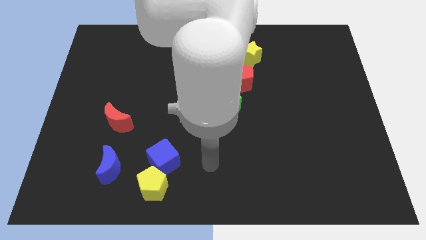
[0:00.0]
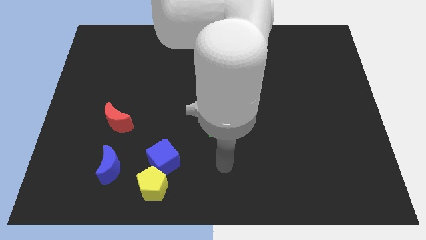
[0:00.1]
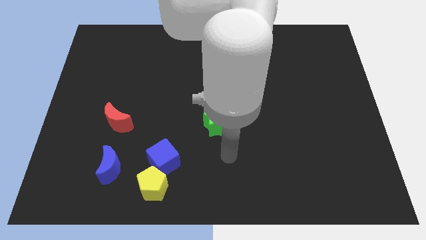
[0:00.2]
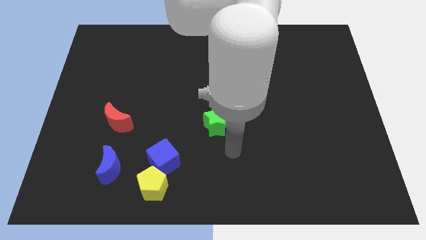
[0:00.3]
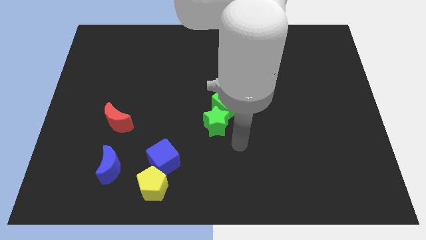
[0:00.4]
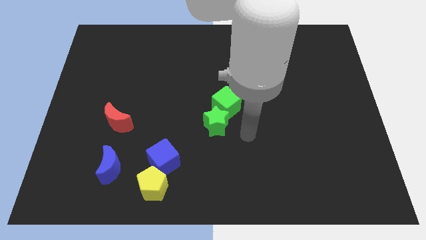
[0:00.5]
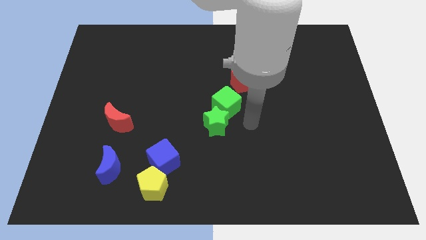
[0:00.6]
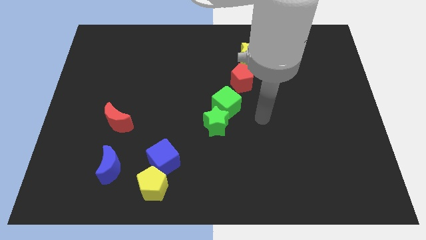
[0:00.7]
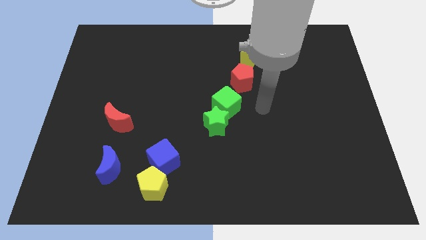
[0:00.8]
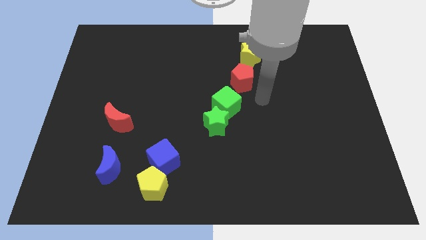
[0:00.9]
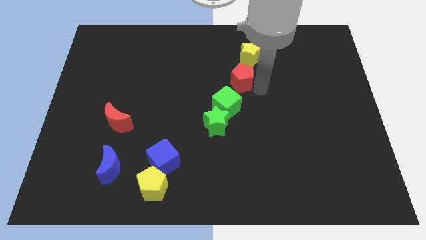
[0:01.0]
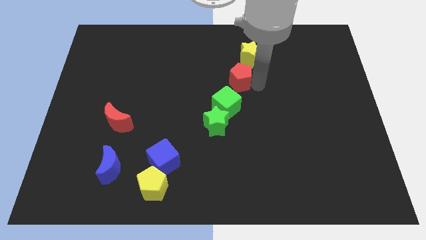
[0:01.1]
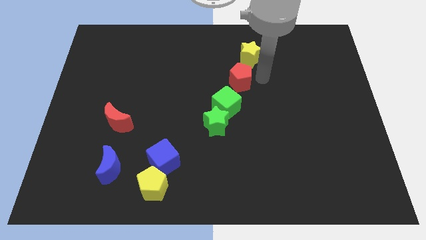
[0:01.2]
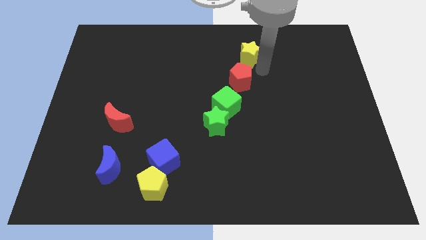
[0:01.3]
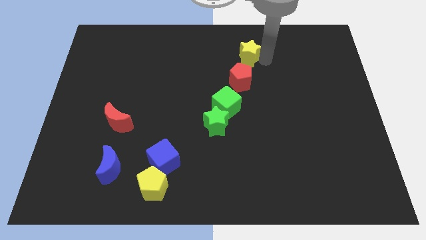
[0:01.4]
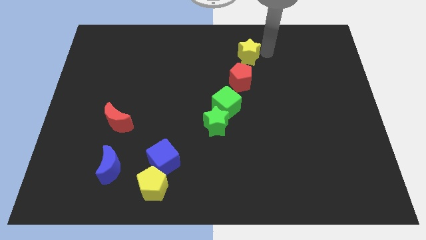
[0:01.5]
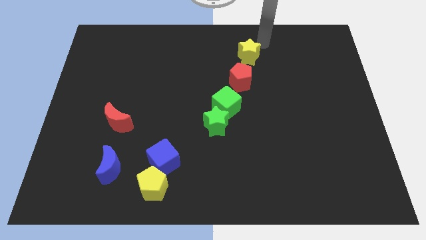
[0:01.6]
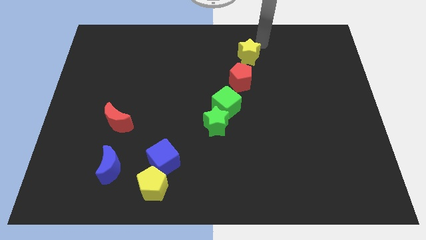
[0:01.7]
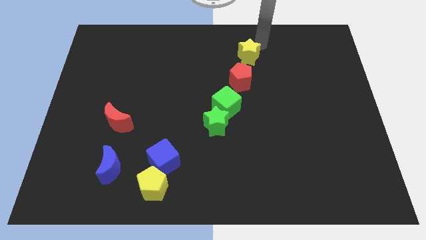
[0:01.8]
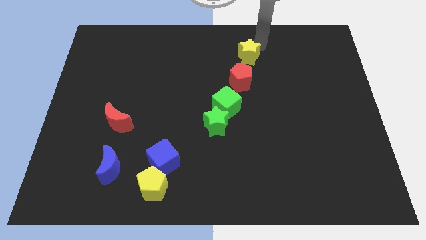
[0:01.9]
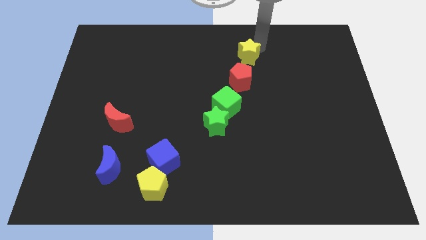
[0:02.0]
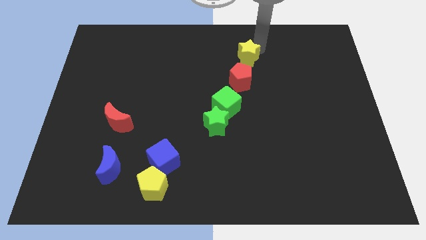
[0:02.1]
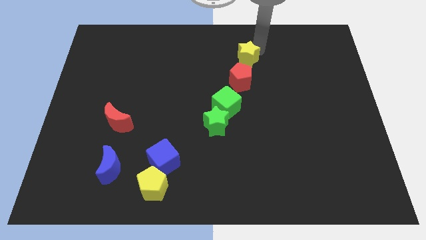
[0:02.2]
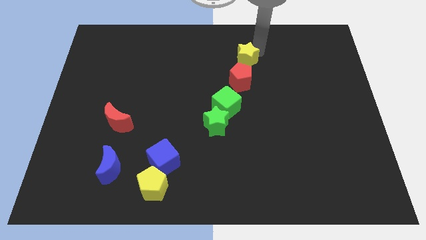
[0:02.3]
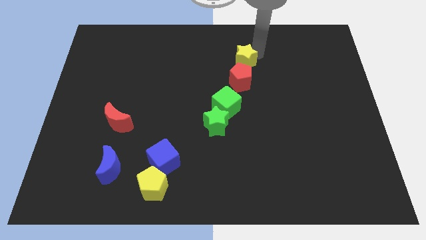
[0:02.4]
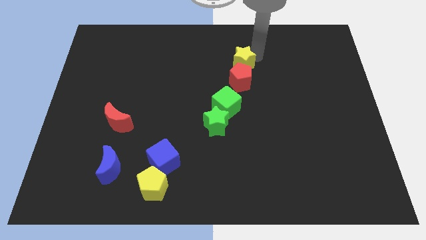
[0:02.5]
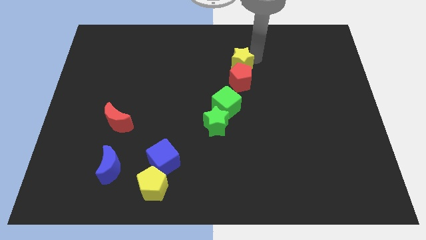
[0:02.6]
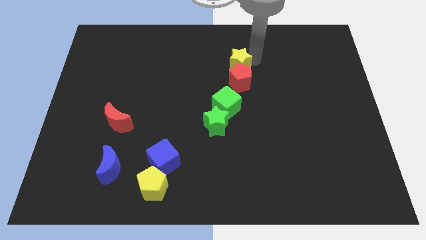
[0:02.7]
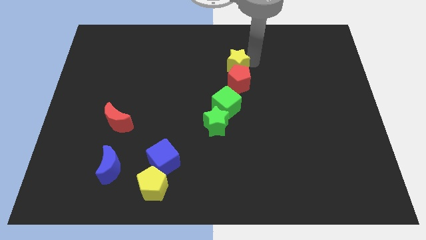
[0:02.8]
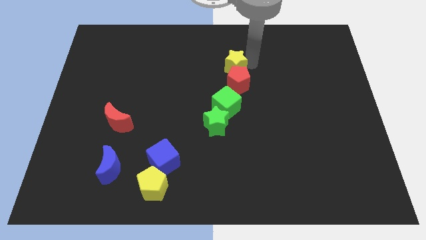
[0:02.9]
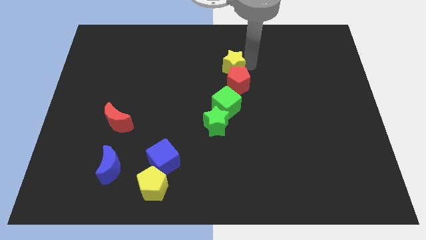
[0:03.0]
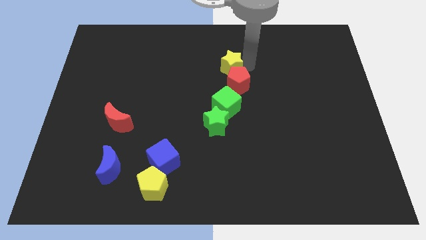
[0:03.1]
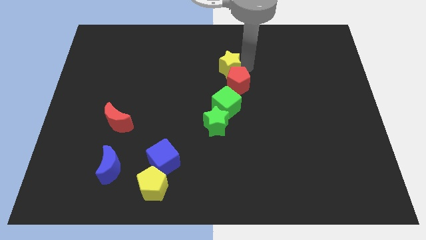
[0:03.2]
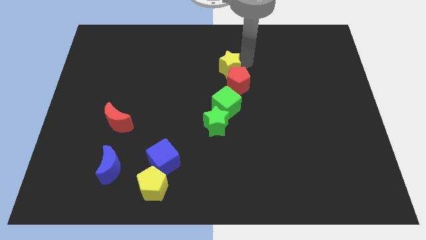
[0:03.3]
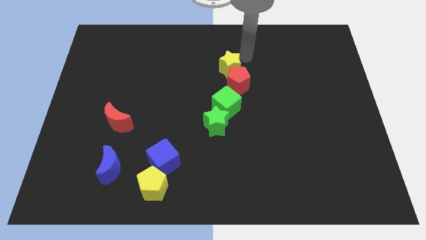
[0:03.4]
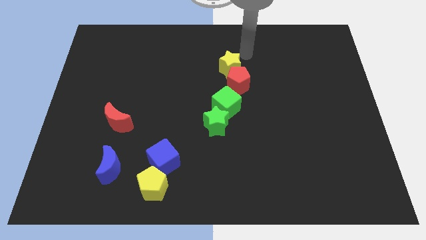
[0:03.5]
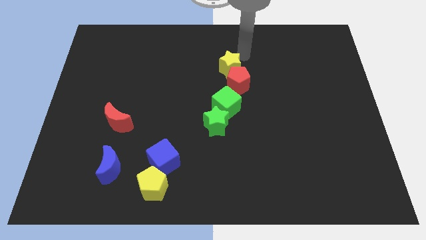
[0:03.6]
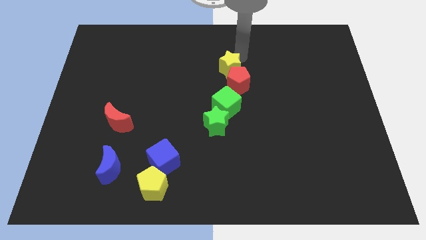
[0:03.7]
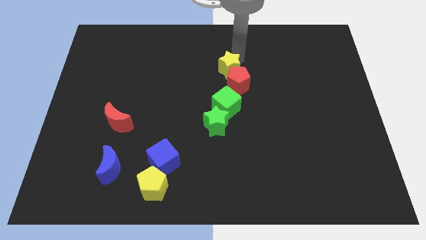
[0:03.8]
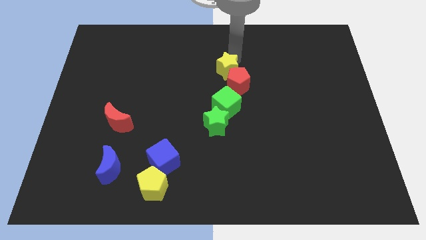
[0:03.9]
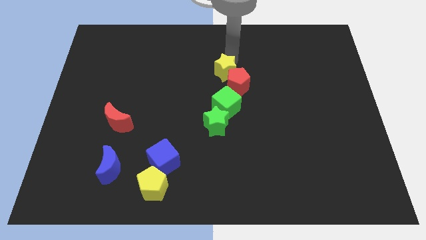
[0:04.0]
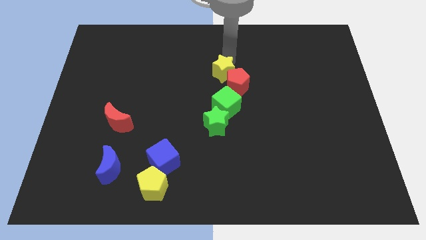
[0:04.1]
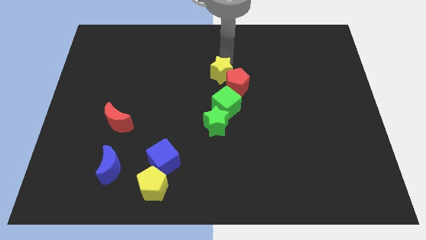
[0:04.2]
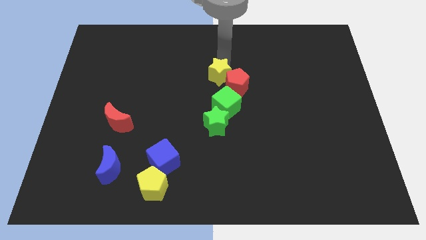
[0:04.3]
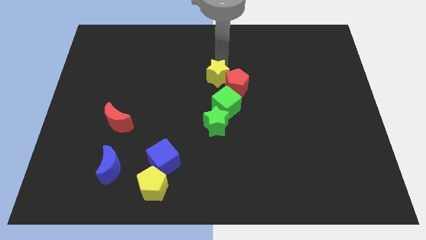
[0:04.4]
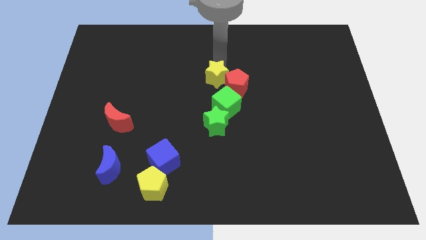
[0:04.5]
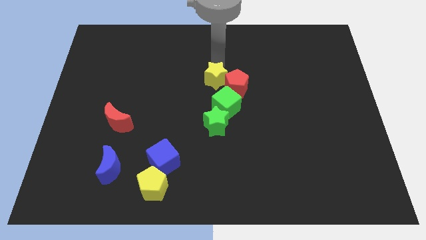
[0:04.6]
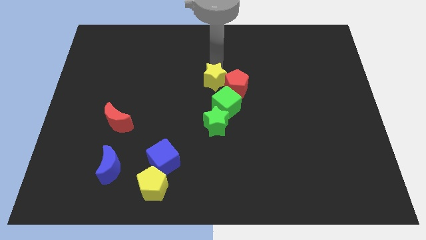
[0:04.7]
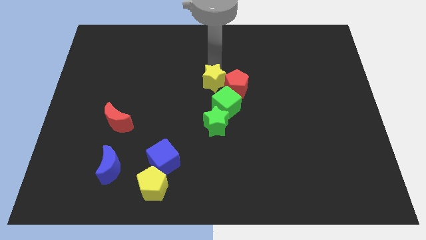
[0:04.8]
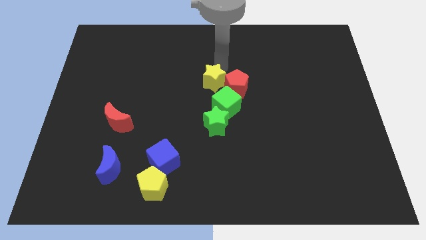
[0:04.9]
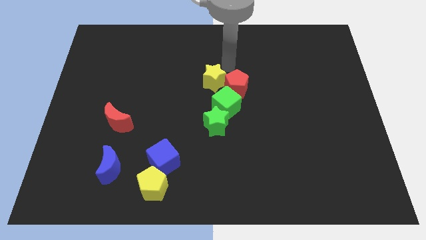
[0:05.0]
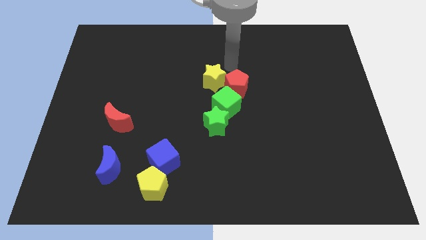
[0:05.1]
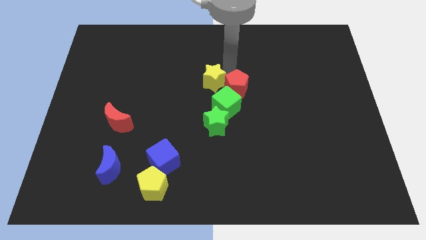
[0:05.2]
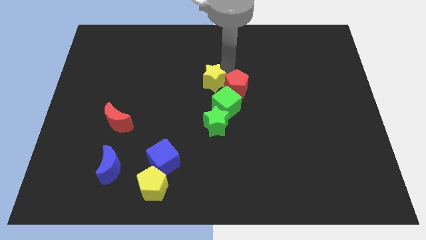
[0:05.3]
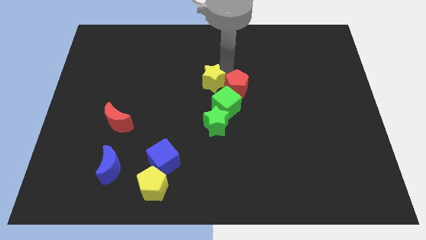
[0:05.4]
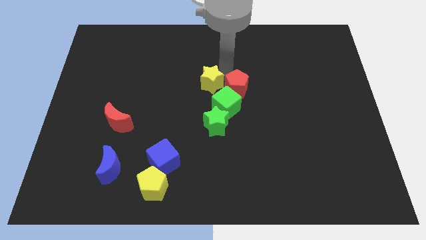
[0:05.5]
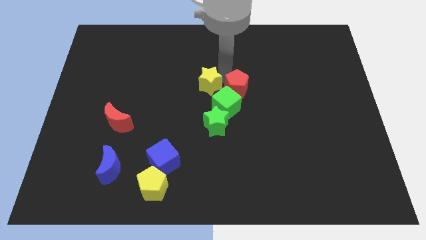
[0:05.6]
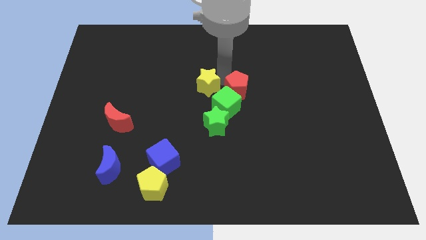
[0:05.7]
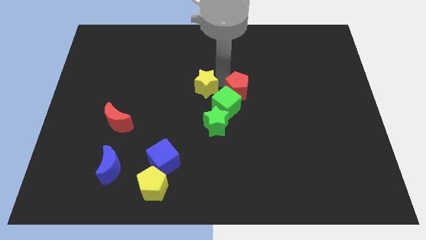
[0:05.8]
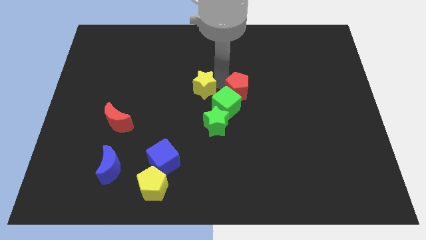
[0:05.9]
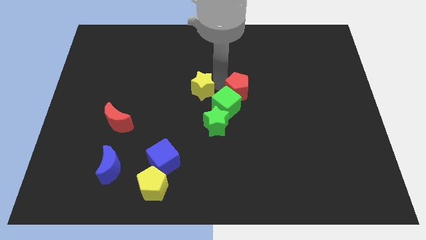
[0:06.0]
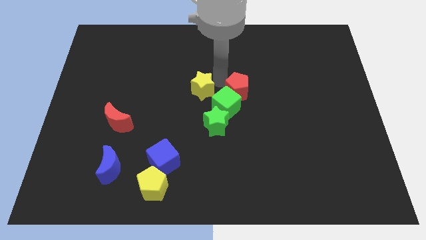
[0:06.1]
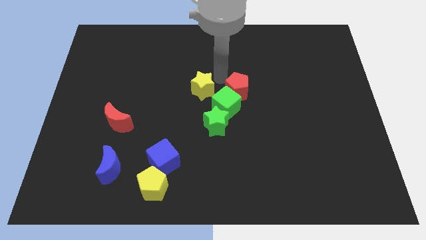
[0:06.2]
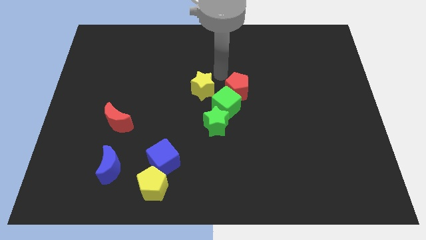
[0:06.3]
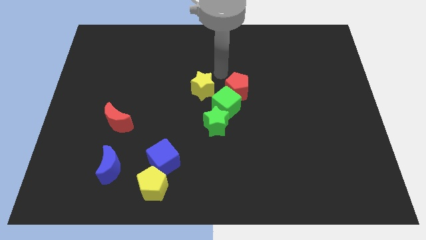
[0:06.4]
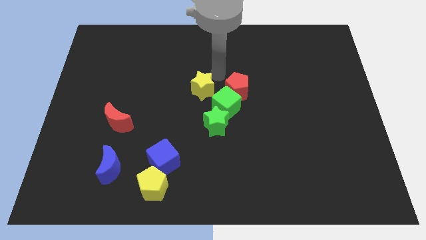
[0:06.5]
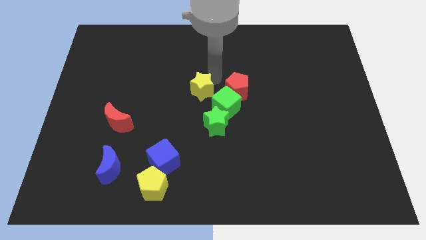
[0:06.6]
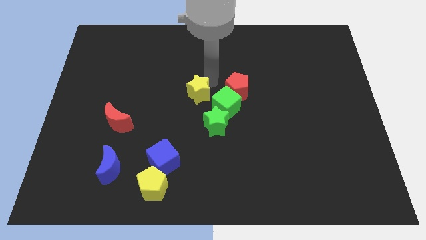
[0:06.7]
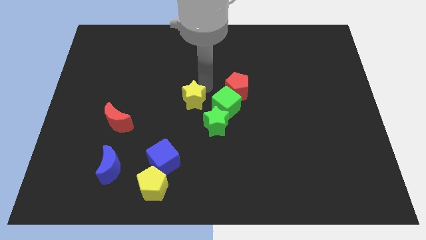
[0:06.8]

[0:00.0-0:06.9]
move the yellow star downwards and left diagonally

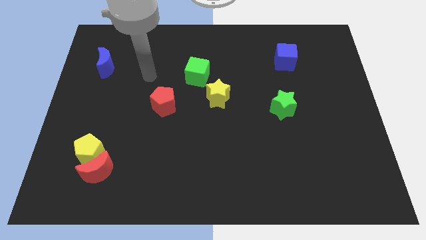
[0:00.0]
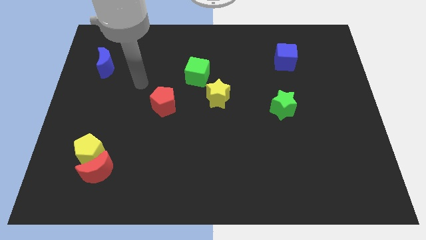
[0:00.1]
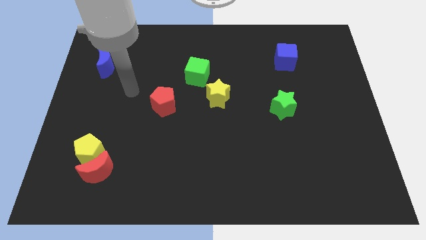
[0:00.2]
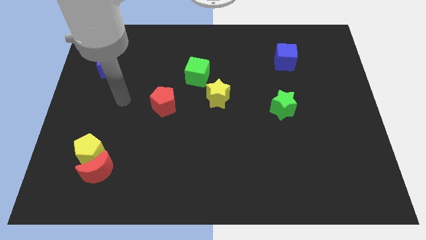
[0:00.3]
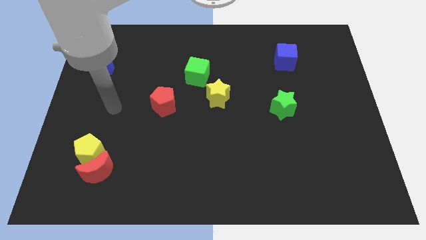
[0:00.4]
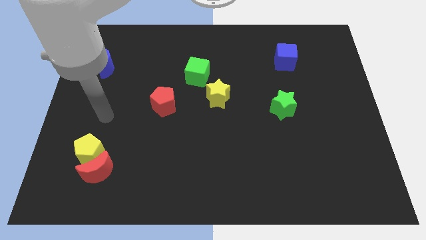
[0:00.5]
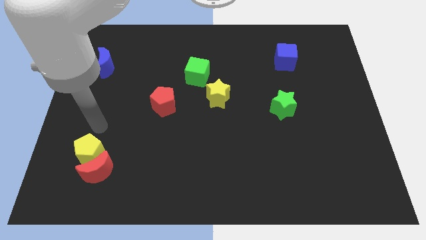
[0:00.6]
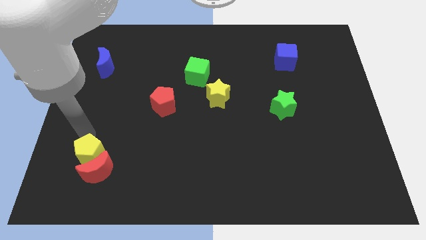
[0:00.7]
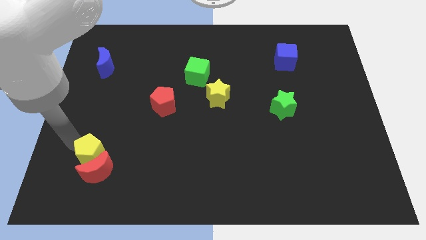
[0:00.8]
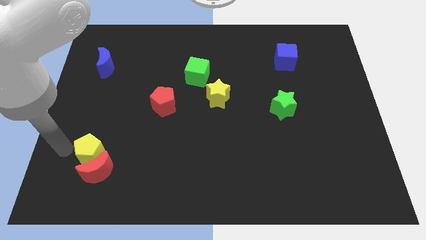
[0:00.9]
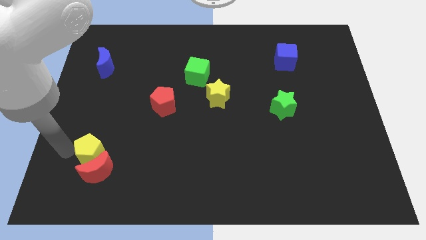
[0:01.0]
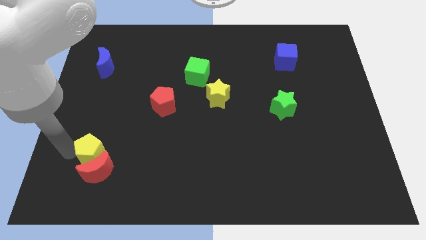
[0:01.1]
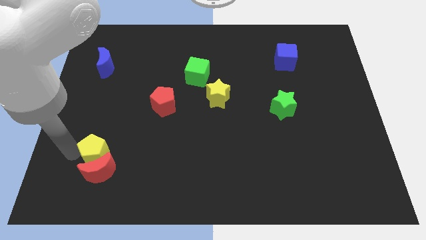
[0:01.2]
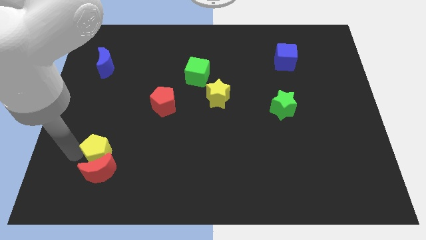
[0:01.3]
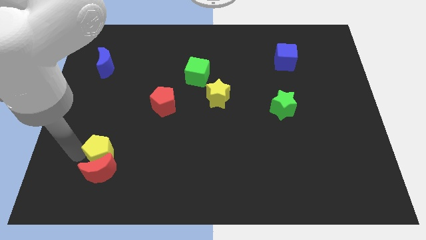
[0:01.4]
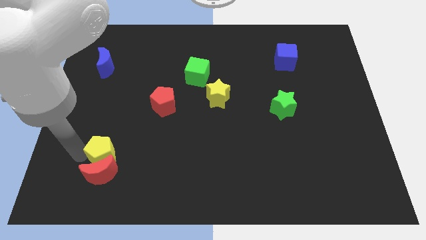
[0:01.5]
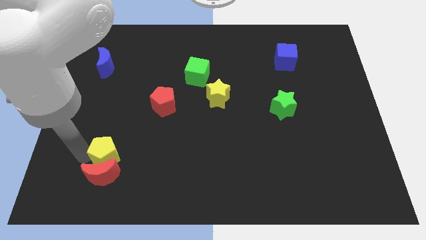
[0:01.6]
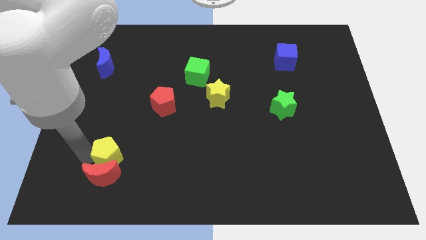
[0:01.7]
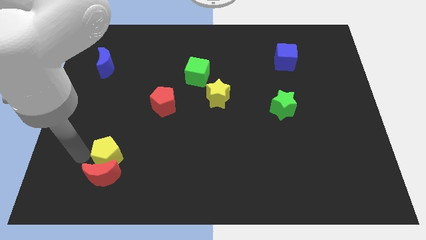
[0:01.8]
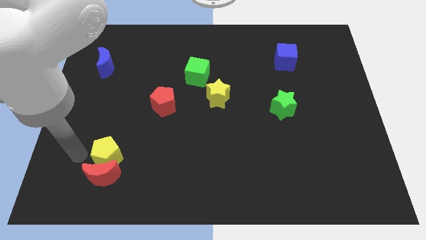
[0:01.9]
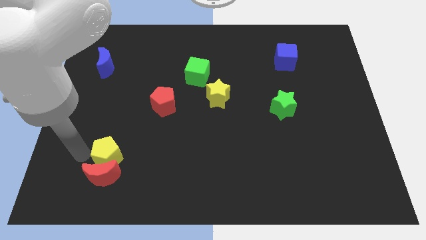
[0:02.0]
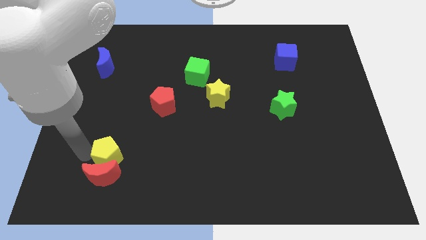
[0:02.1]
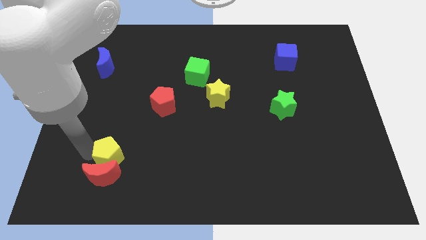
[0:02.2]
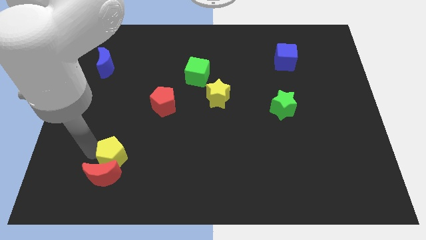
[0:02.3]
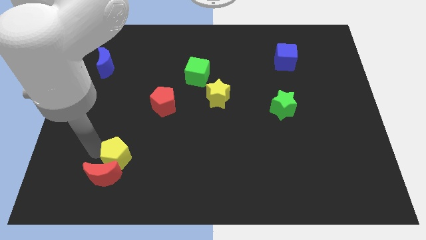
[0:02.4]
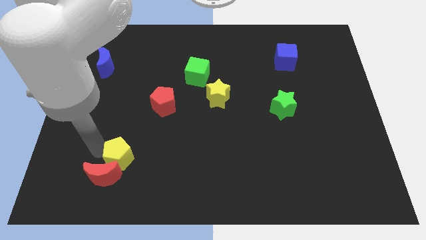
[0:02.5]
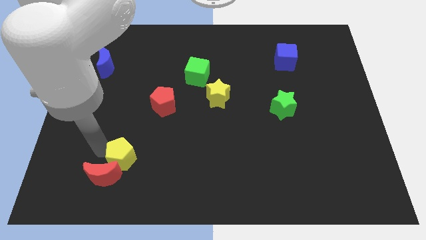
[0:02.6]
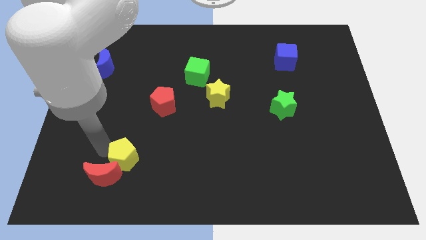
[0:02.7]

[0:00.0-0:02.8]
push the yellow pentagon a little to the right
